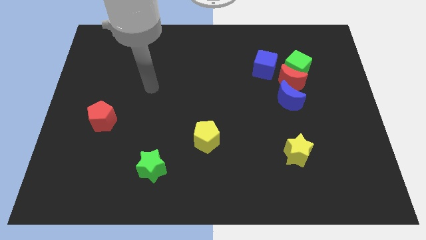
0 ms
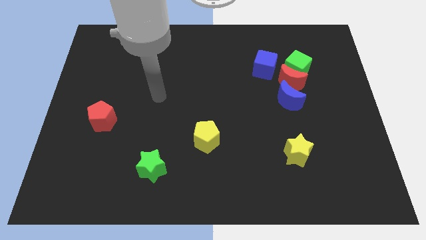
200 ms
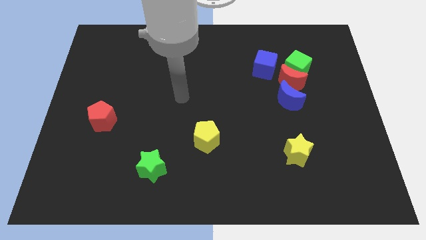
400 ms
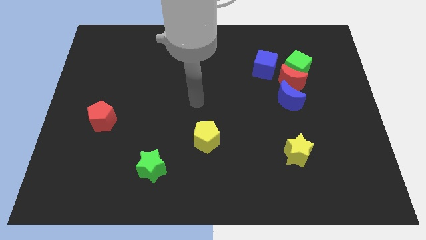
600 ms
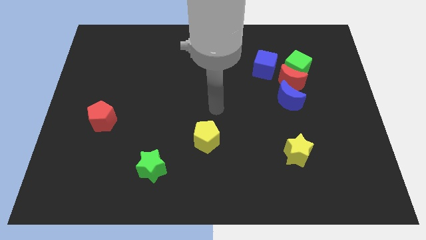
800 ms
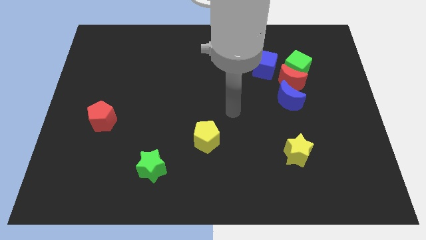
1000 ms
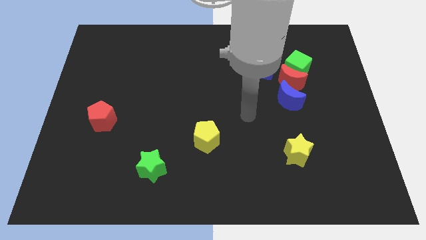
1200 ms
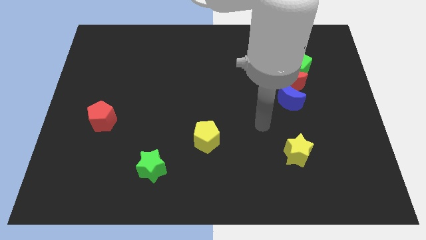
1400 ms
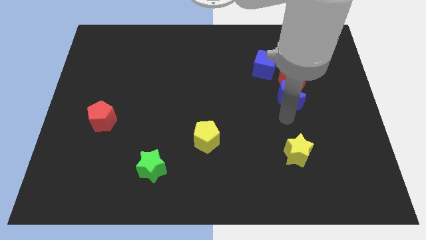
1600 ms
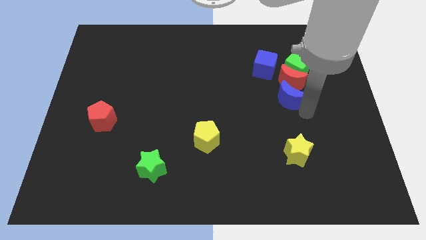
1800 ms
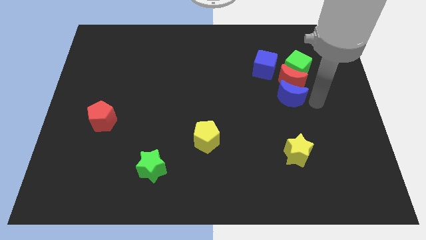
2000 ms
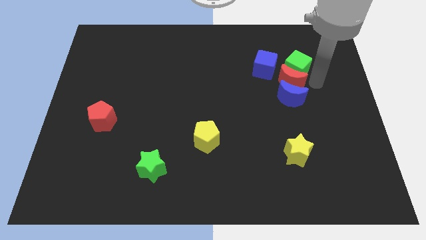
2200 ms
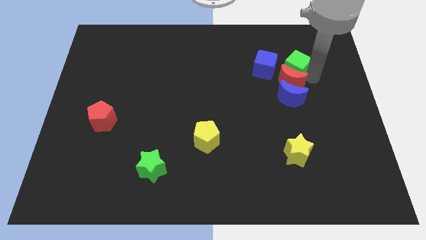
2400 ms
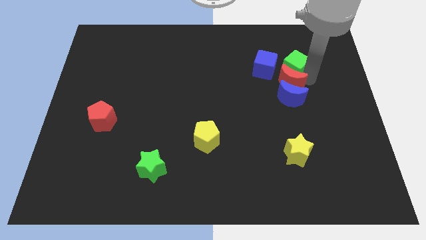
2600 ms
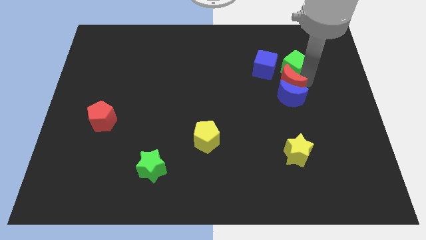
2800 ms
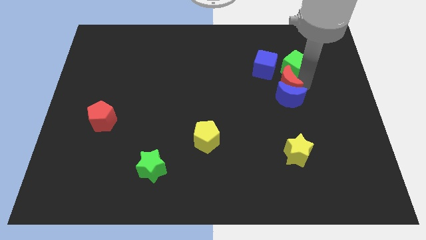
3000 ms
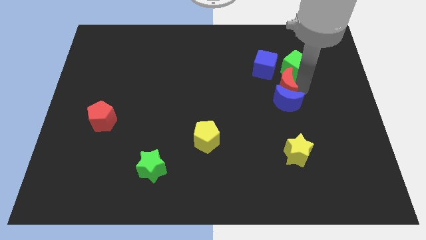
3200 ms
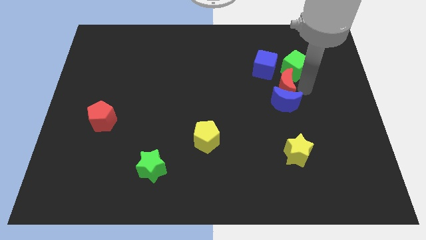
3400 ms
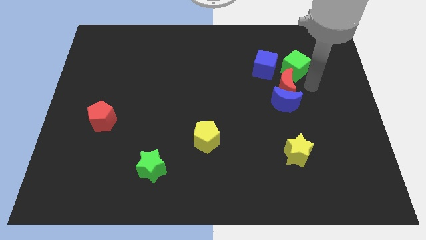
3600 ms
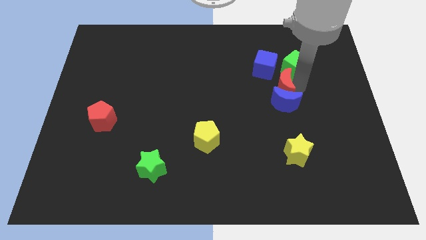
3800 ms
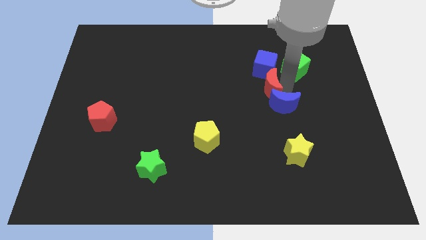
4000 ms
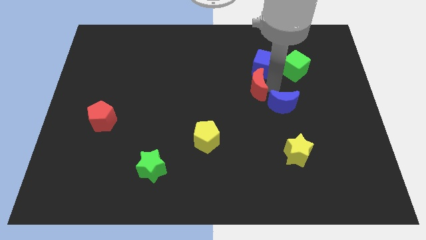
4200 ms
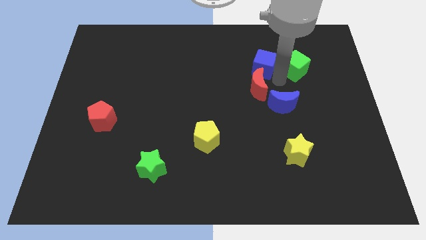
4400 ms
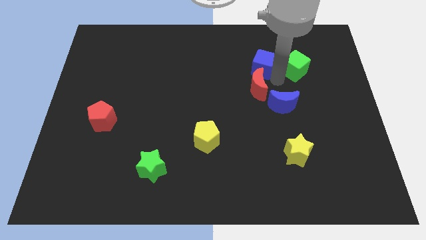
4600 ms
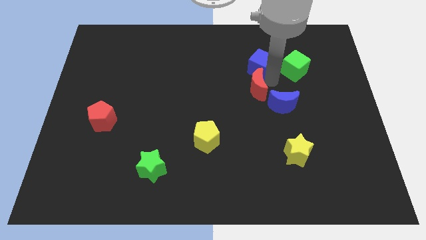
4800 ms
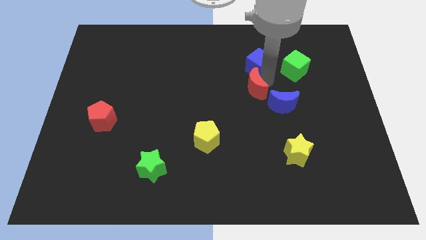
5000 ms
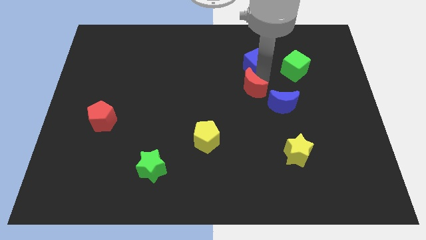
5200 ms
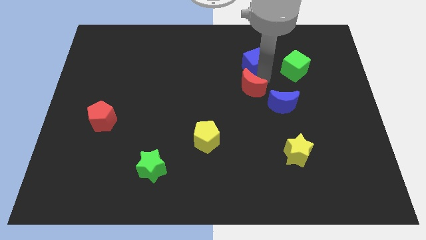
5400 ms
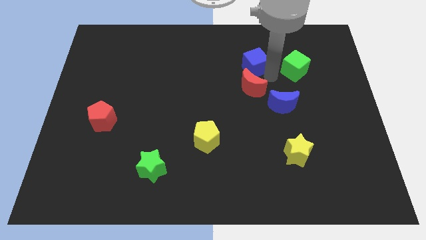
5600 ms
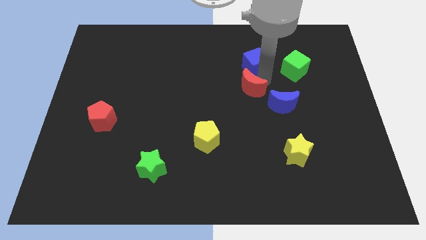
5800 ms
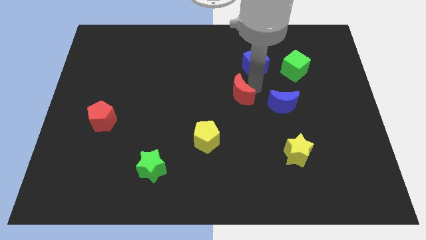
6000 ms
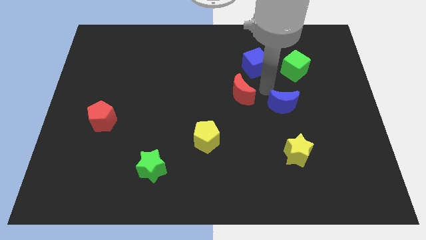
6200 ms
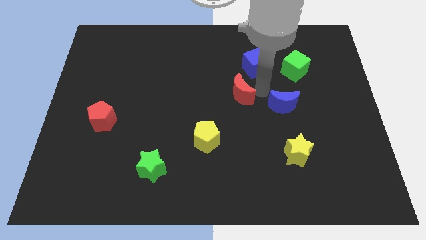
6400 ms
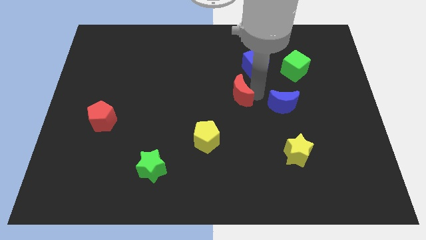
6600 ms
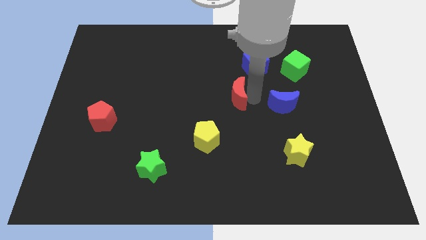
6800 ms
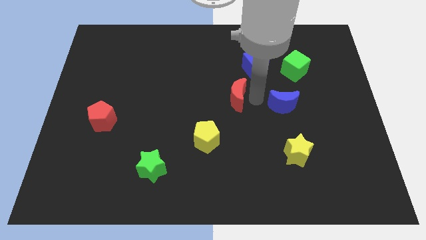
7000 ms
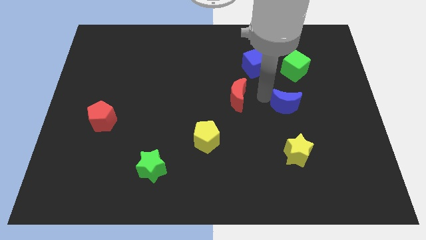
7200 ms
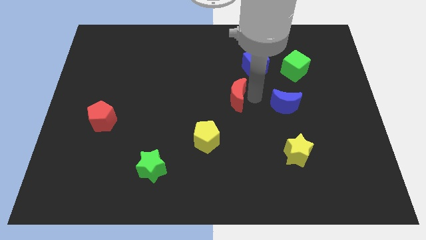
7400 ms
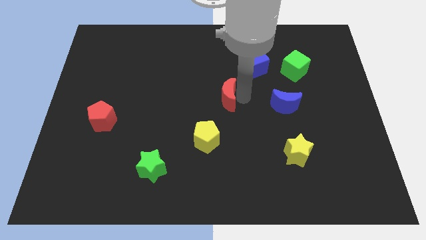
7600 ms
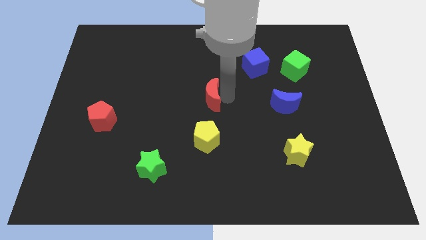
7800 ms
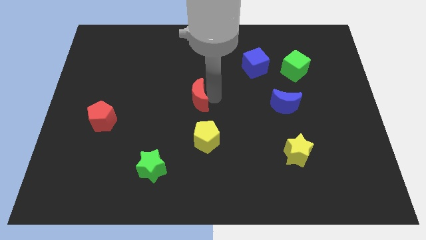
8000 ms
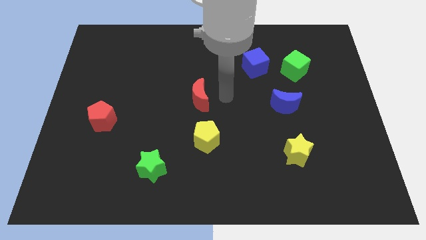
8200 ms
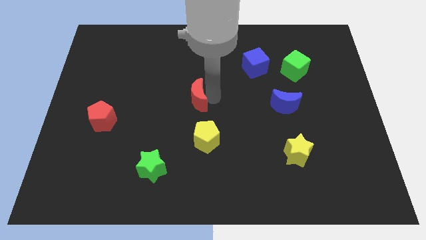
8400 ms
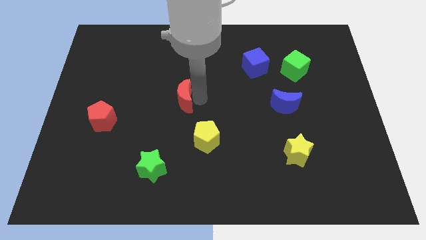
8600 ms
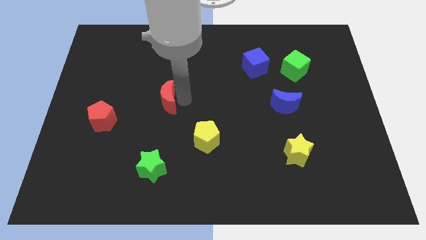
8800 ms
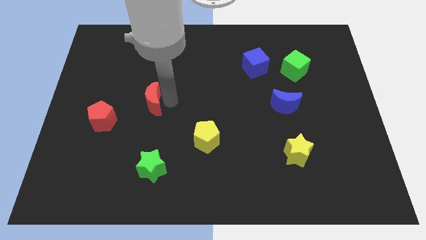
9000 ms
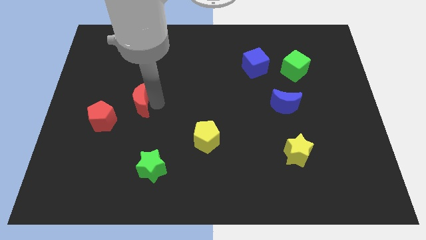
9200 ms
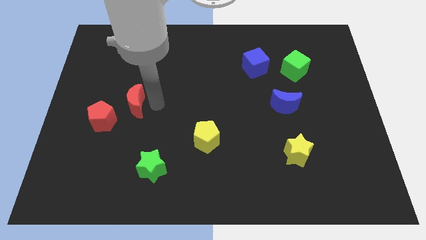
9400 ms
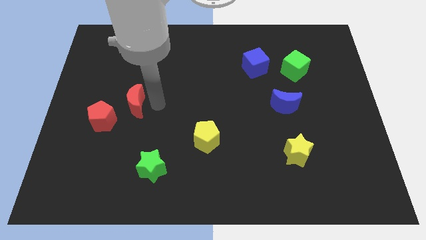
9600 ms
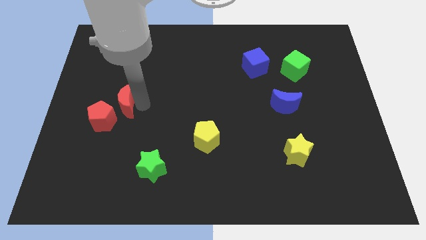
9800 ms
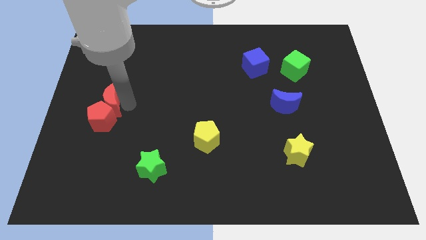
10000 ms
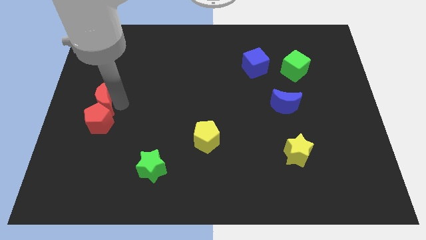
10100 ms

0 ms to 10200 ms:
put the red moon to the left side

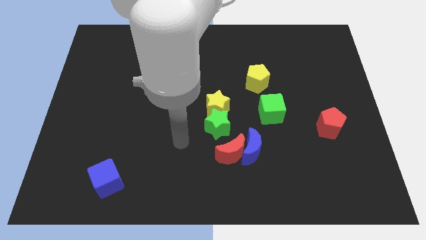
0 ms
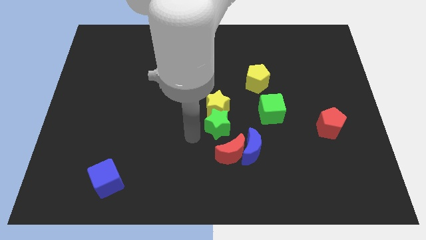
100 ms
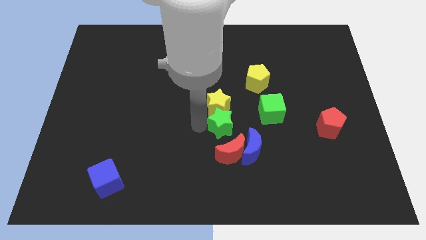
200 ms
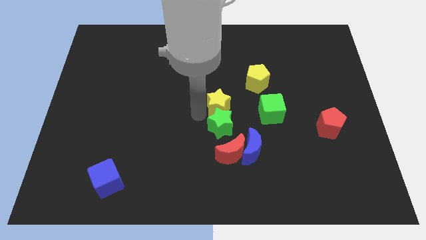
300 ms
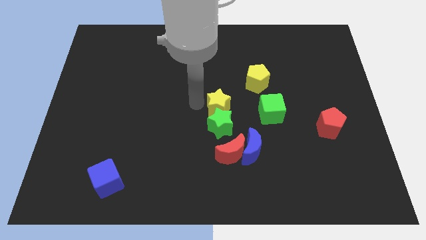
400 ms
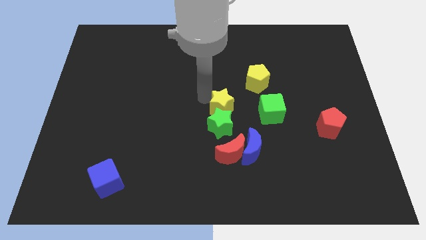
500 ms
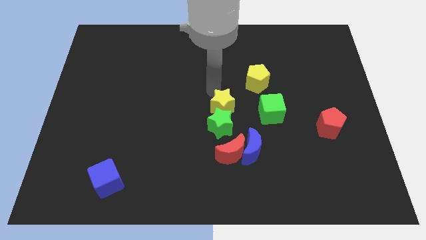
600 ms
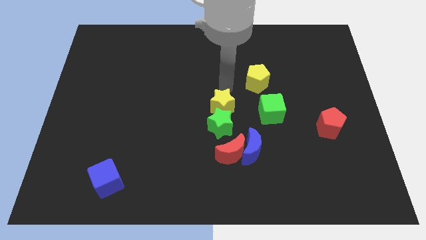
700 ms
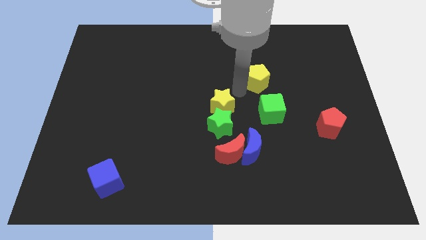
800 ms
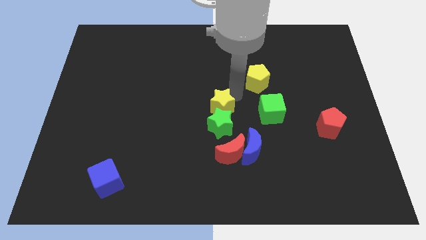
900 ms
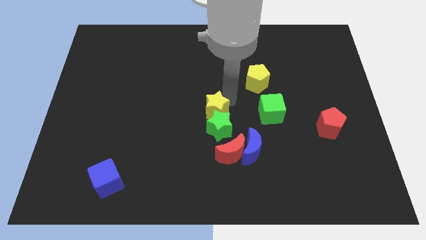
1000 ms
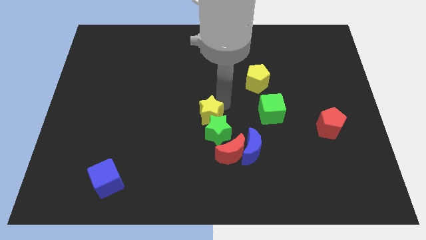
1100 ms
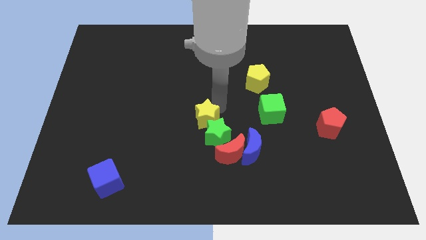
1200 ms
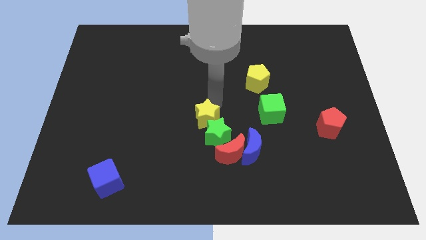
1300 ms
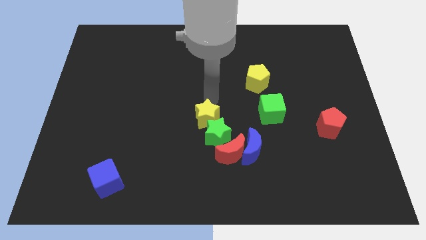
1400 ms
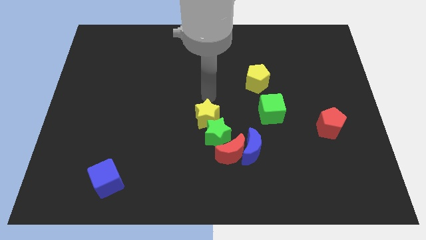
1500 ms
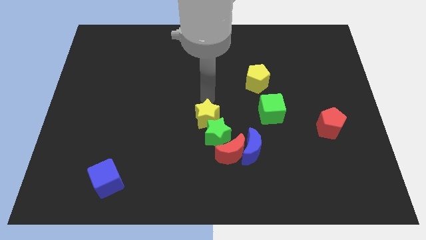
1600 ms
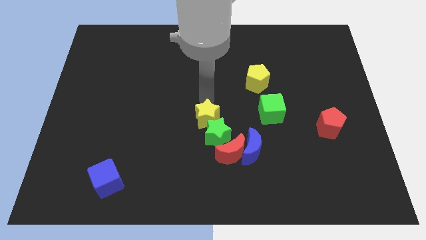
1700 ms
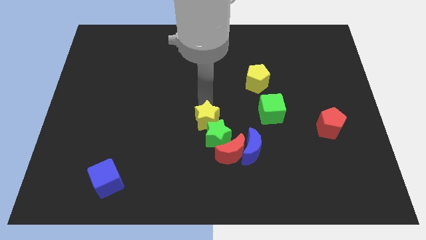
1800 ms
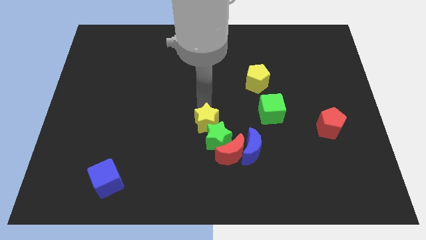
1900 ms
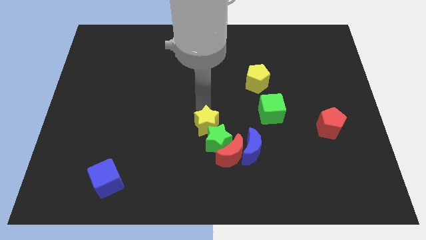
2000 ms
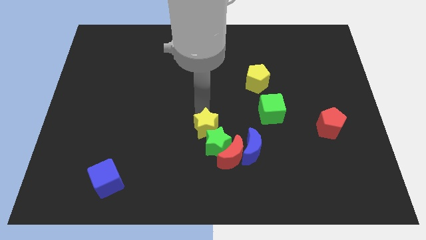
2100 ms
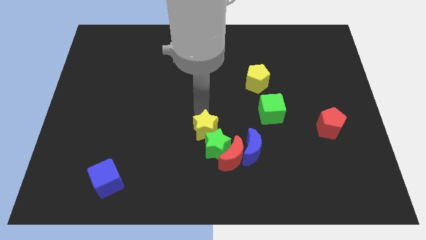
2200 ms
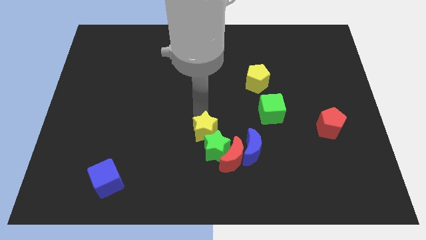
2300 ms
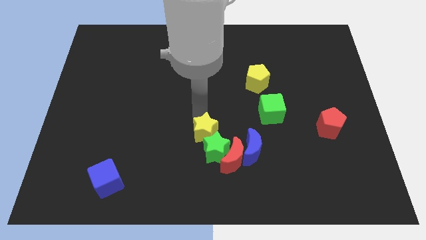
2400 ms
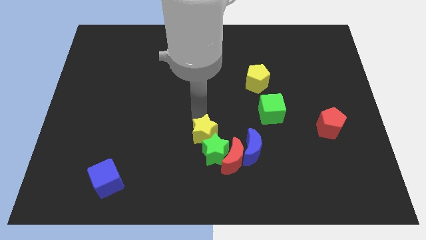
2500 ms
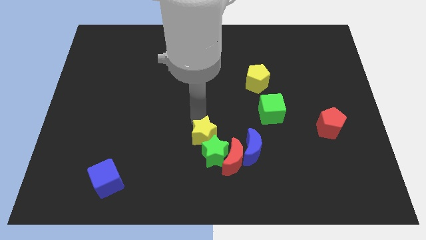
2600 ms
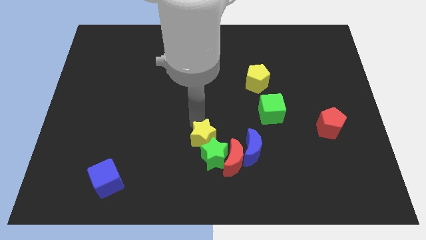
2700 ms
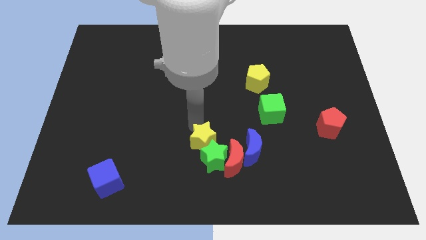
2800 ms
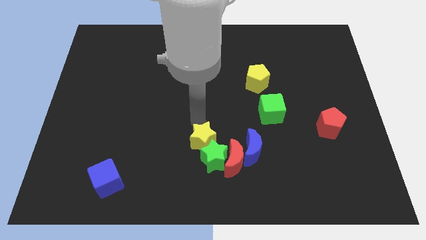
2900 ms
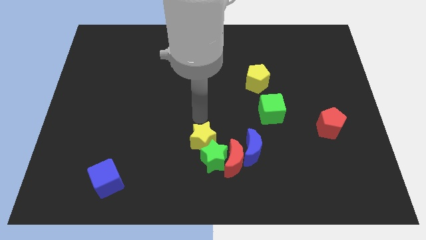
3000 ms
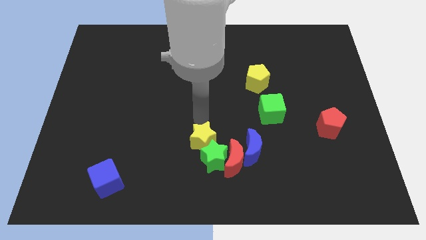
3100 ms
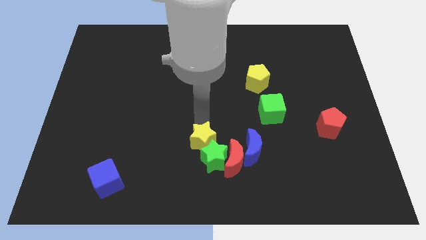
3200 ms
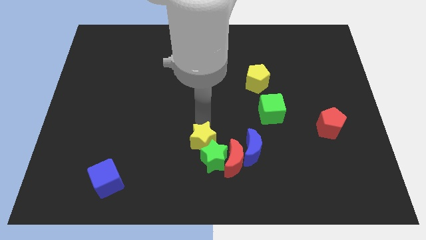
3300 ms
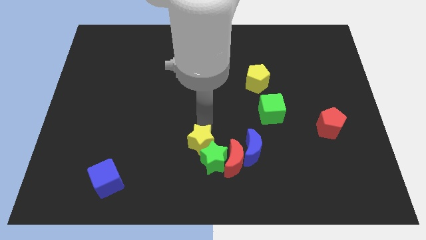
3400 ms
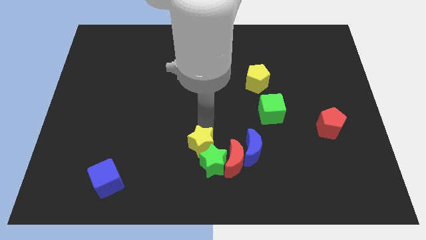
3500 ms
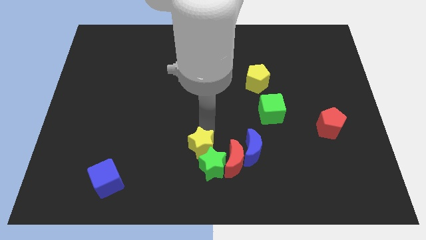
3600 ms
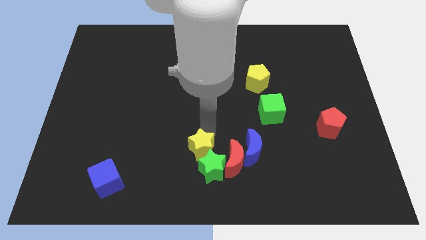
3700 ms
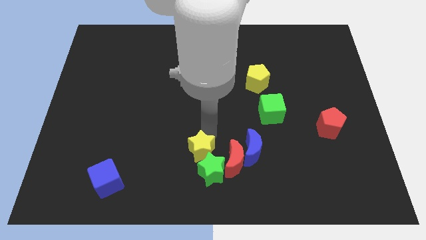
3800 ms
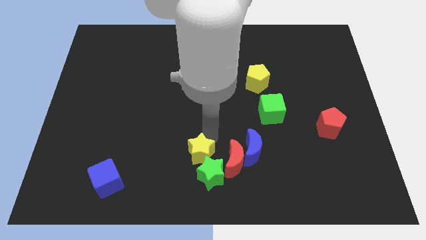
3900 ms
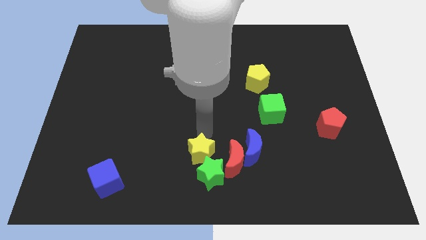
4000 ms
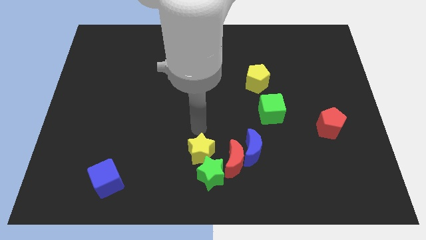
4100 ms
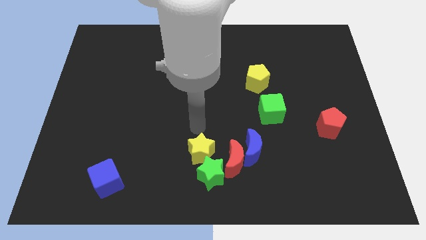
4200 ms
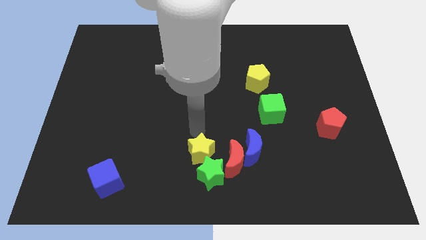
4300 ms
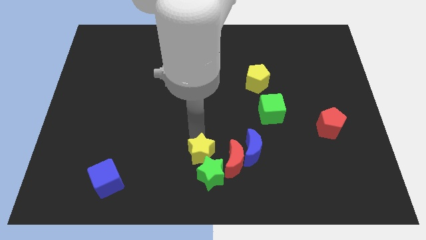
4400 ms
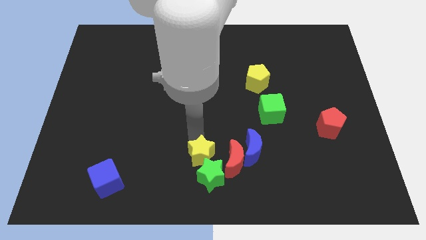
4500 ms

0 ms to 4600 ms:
push the yellow star to the bottom
